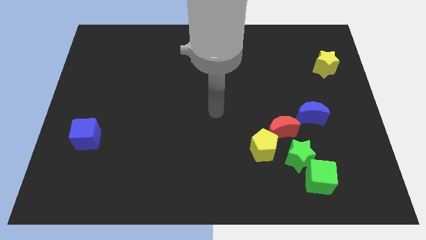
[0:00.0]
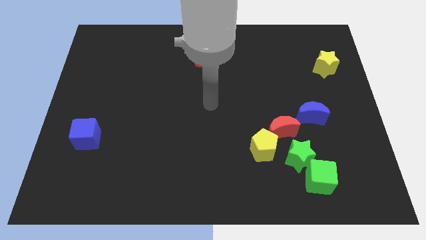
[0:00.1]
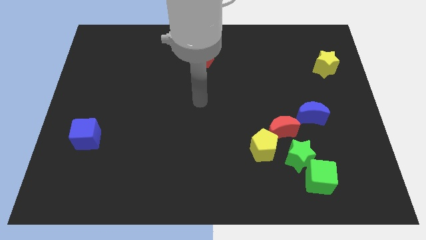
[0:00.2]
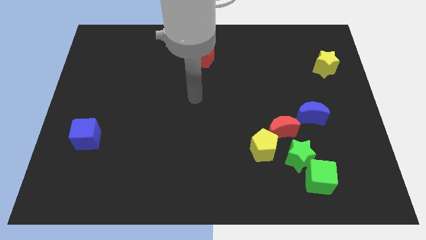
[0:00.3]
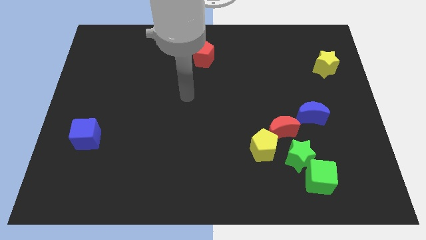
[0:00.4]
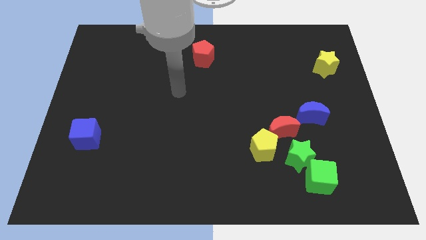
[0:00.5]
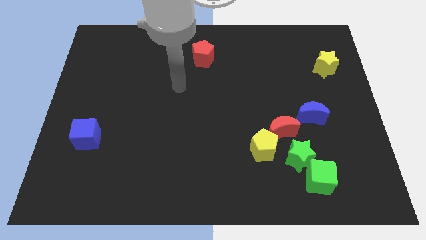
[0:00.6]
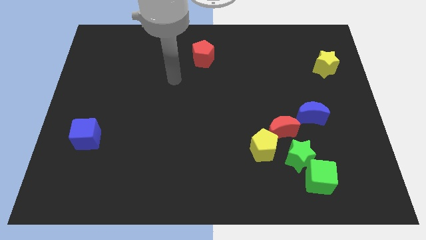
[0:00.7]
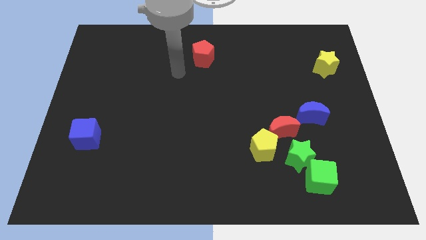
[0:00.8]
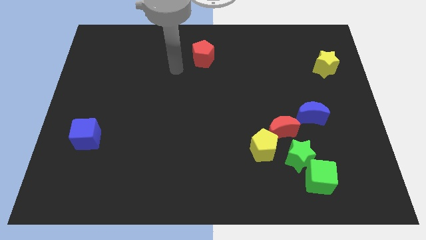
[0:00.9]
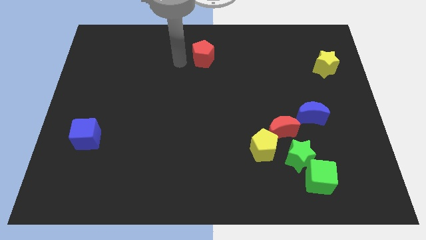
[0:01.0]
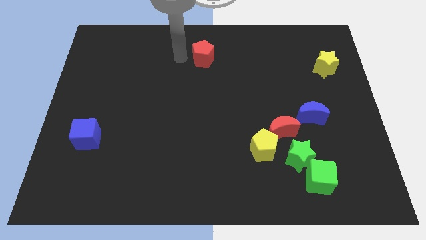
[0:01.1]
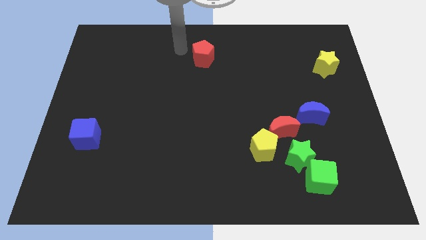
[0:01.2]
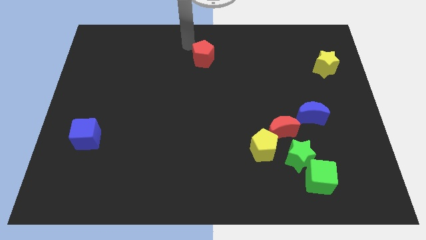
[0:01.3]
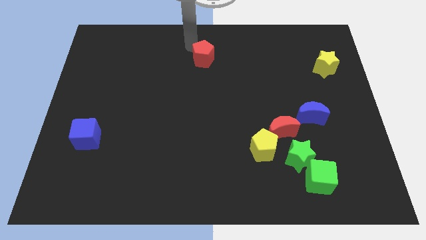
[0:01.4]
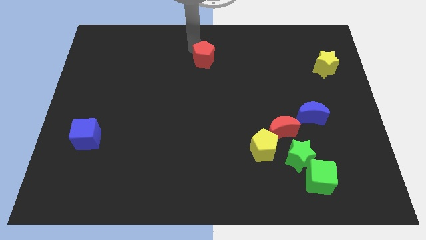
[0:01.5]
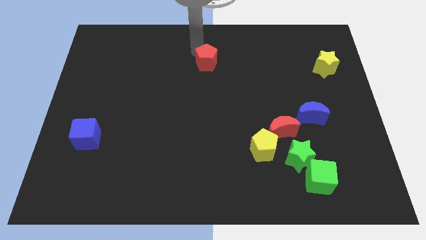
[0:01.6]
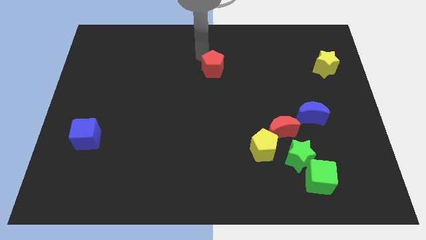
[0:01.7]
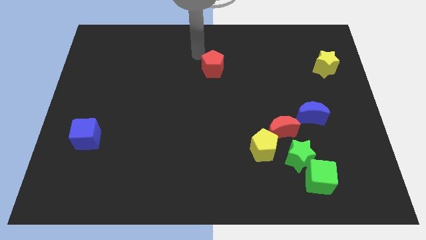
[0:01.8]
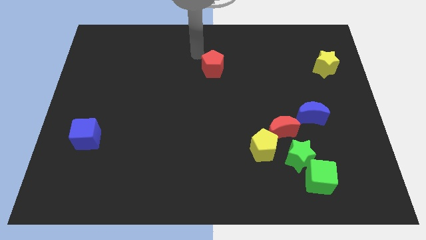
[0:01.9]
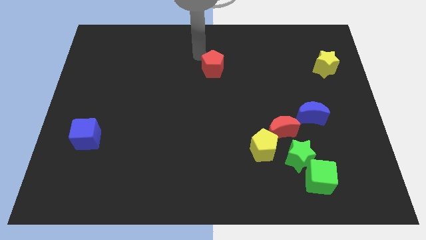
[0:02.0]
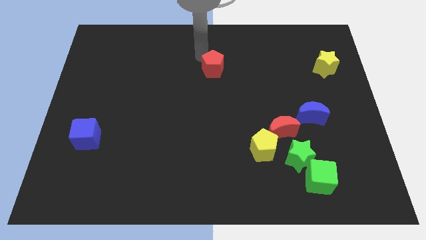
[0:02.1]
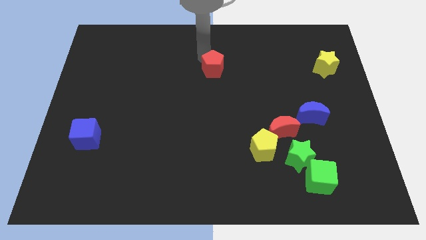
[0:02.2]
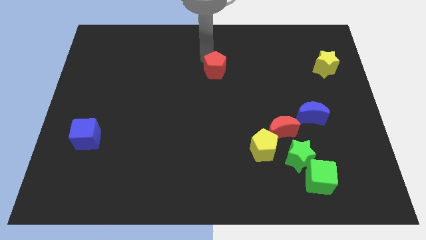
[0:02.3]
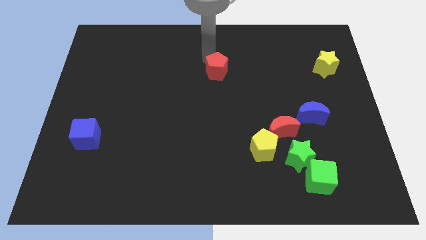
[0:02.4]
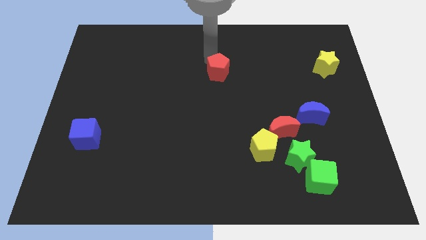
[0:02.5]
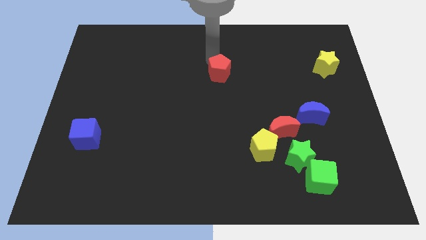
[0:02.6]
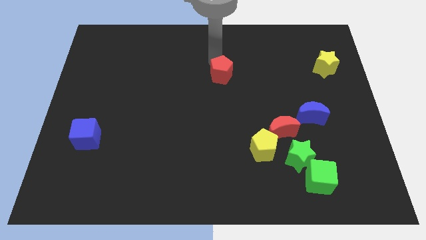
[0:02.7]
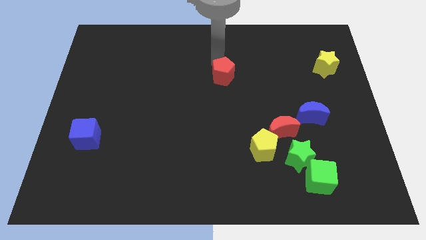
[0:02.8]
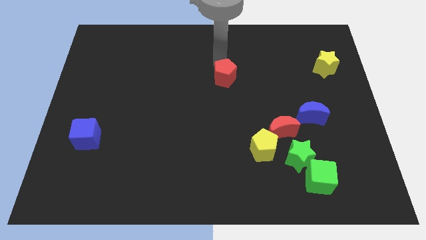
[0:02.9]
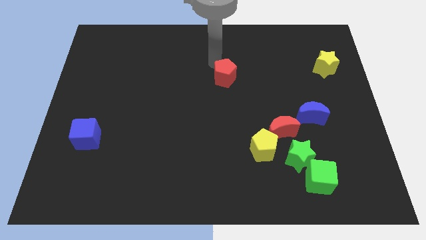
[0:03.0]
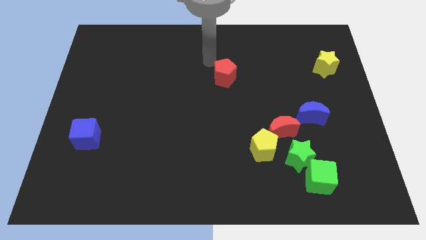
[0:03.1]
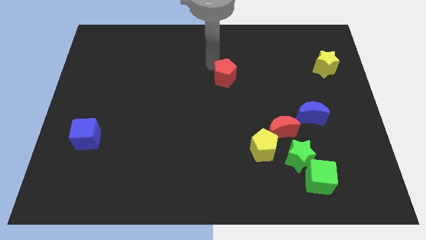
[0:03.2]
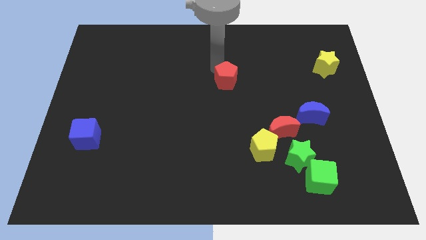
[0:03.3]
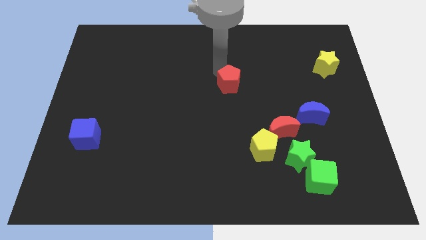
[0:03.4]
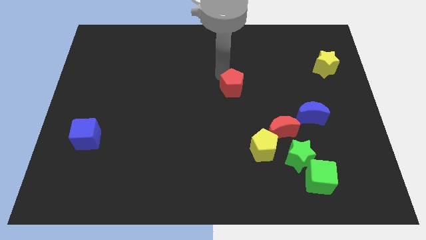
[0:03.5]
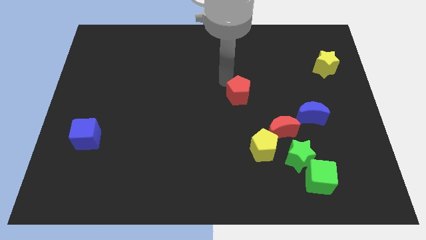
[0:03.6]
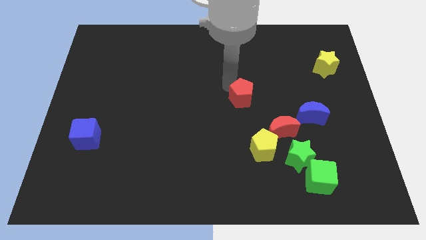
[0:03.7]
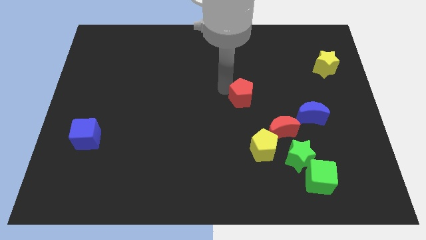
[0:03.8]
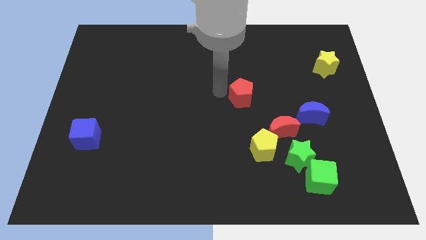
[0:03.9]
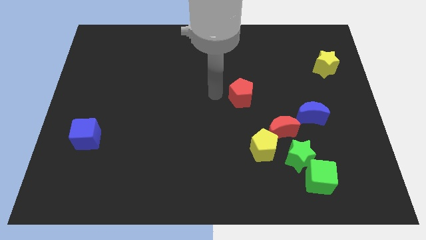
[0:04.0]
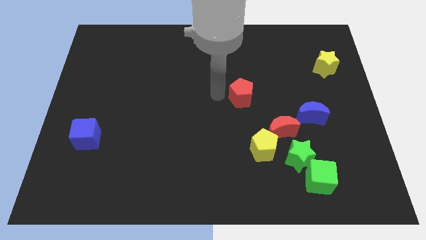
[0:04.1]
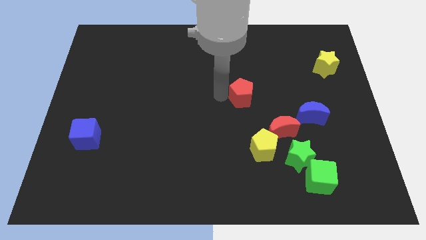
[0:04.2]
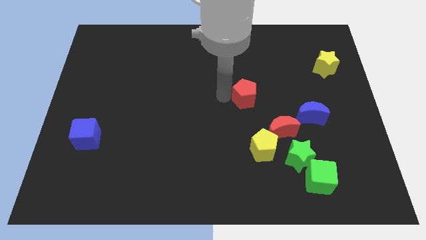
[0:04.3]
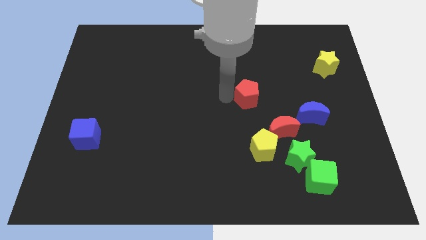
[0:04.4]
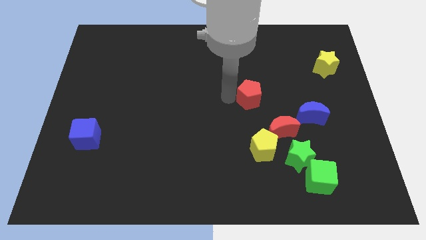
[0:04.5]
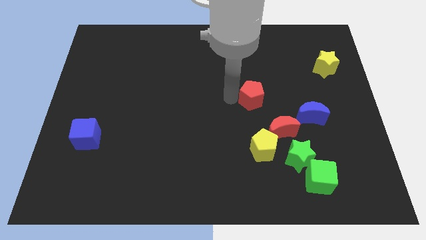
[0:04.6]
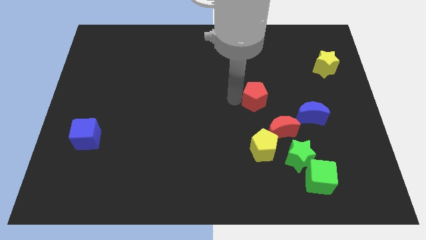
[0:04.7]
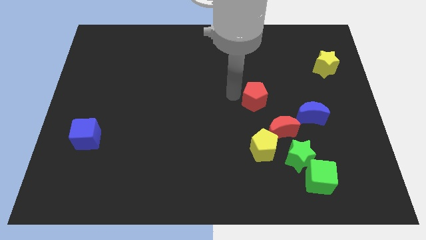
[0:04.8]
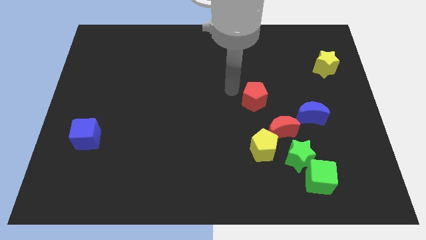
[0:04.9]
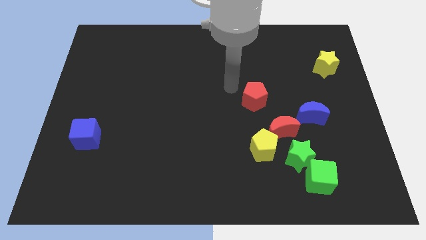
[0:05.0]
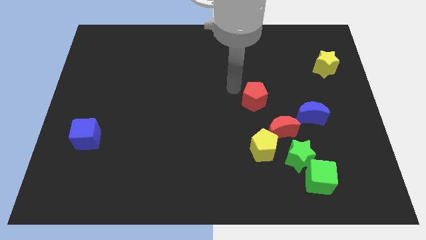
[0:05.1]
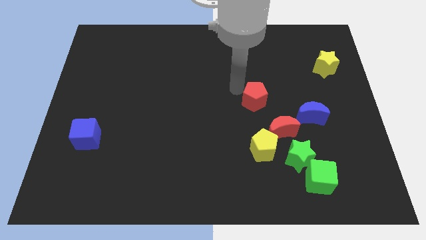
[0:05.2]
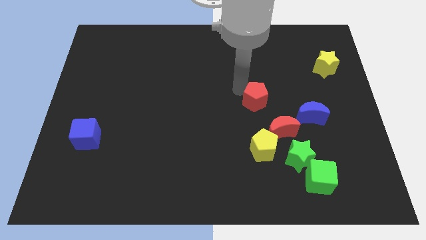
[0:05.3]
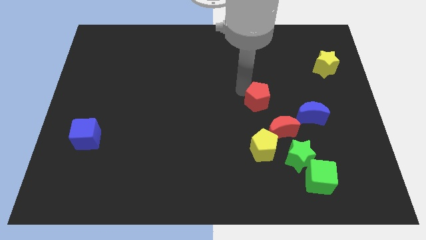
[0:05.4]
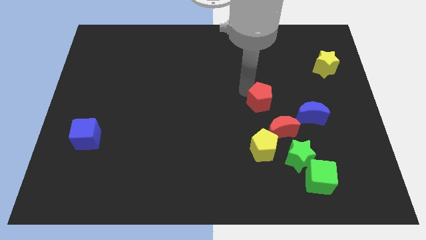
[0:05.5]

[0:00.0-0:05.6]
push the red pentagon downwards and then to the right

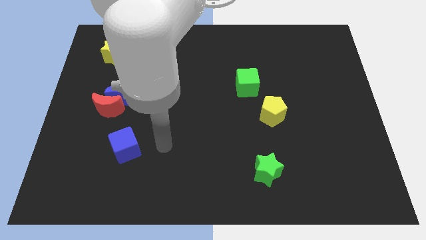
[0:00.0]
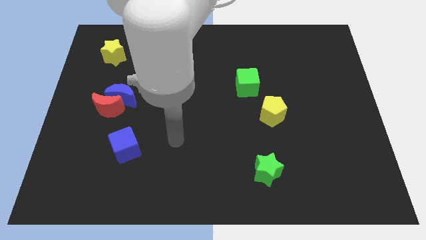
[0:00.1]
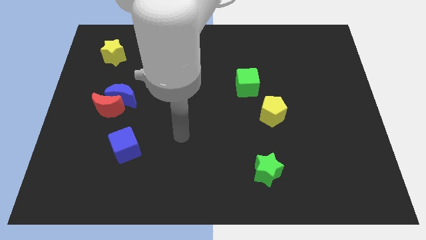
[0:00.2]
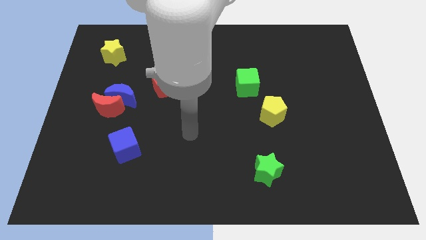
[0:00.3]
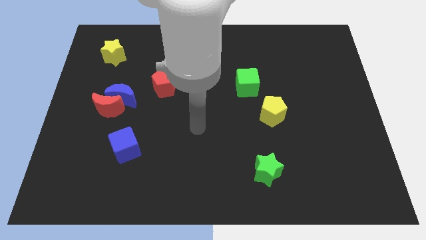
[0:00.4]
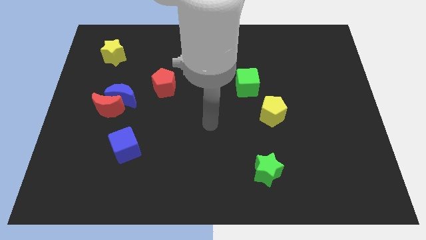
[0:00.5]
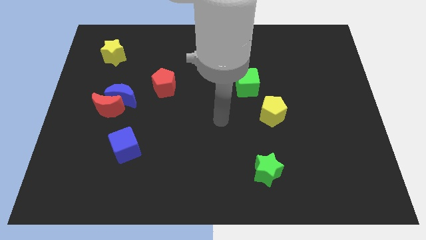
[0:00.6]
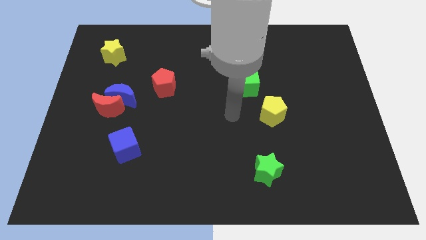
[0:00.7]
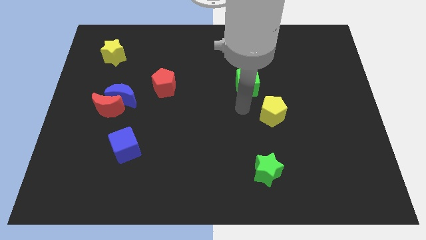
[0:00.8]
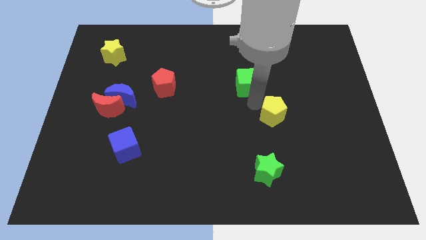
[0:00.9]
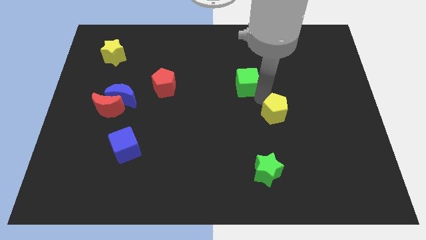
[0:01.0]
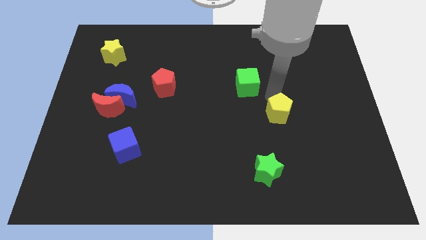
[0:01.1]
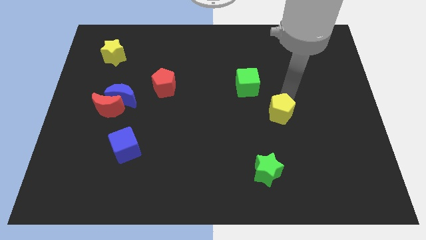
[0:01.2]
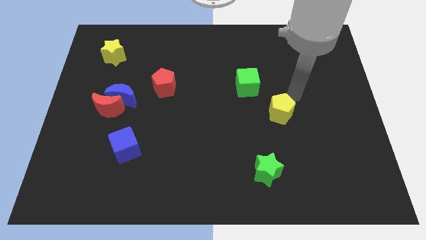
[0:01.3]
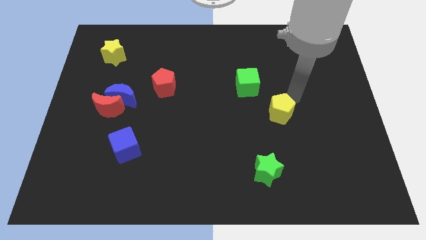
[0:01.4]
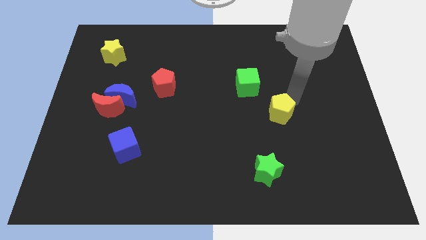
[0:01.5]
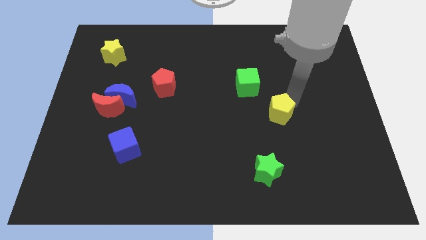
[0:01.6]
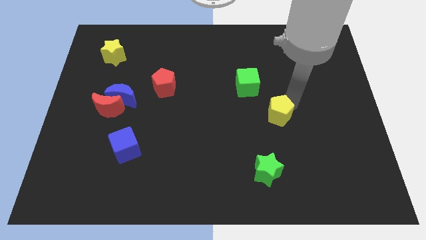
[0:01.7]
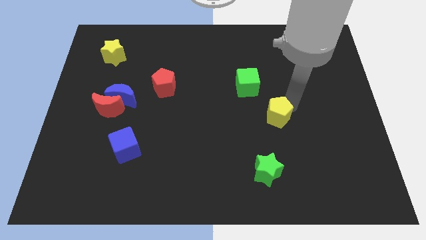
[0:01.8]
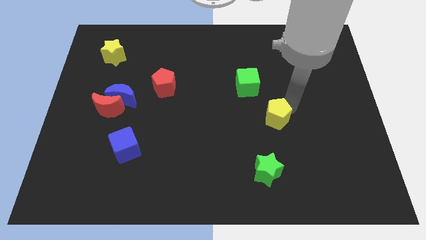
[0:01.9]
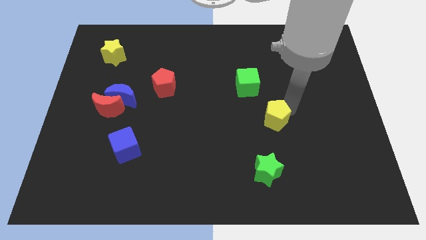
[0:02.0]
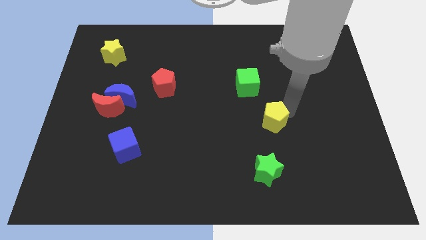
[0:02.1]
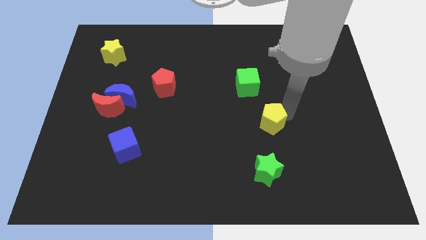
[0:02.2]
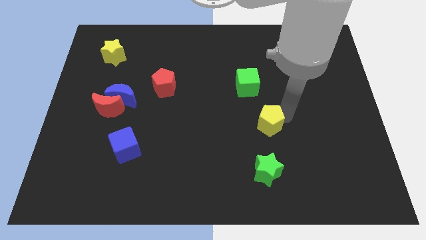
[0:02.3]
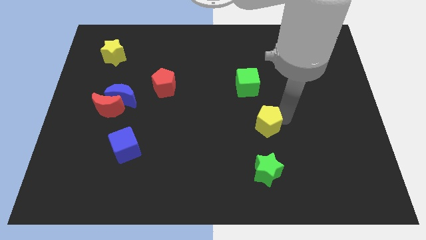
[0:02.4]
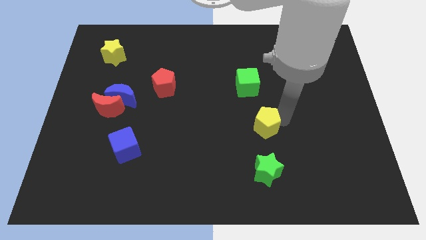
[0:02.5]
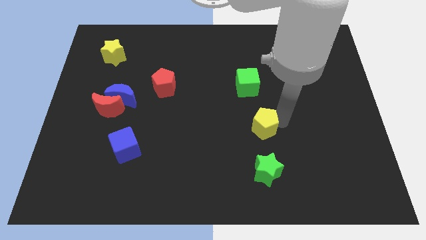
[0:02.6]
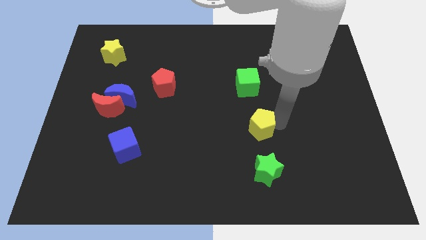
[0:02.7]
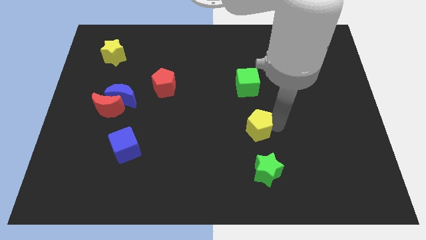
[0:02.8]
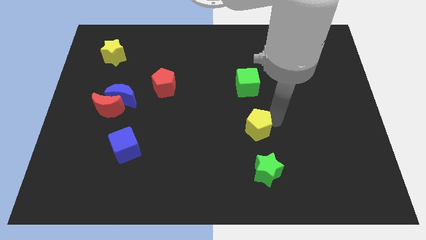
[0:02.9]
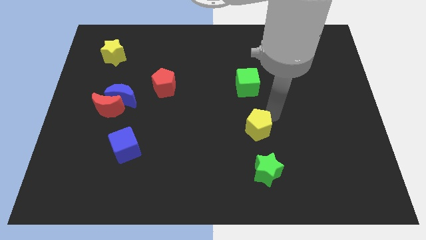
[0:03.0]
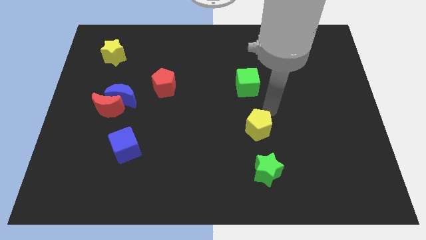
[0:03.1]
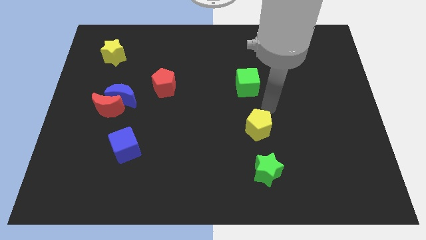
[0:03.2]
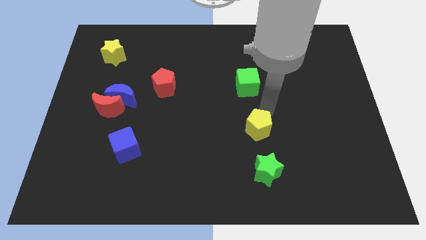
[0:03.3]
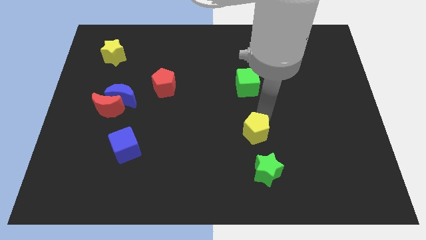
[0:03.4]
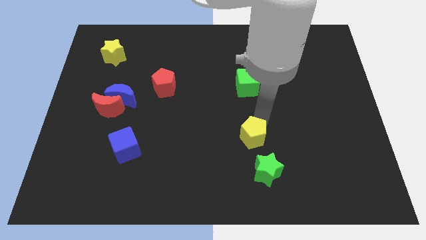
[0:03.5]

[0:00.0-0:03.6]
move the yellow pentagon a bit diagonally downwards and to the left
